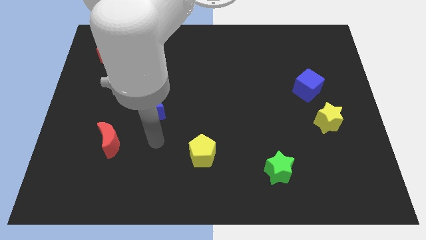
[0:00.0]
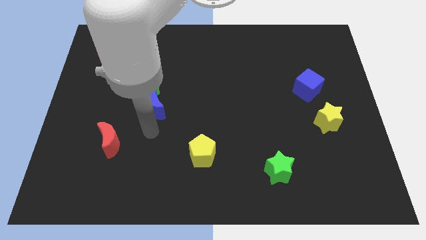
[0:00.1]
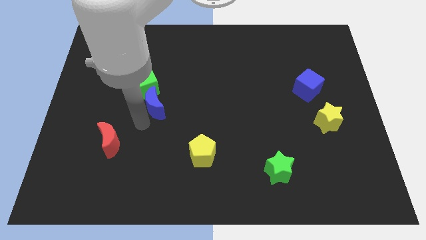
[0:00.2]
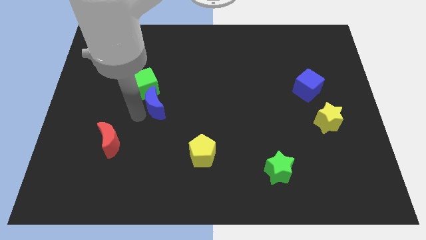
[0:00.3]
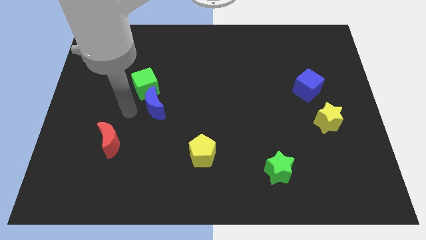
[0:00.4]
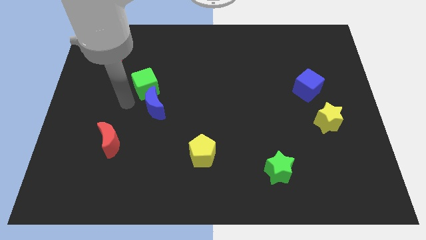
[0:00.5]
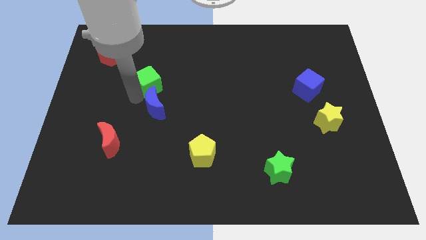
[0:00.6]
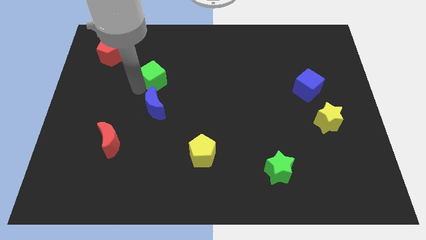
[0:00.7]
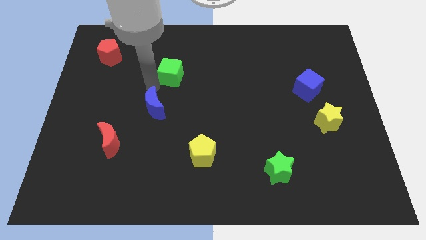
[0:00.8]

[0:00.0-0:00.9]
separate the blue moon from the green cube

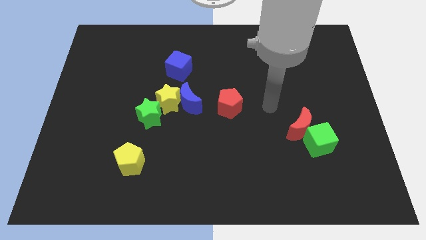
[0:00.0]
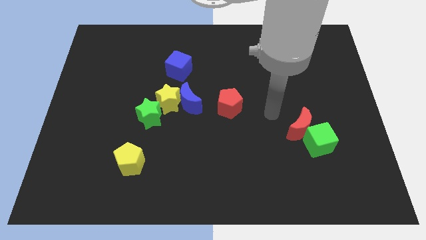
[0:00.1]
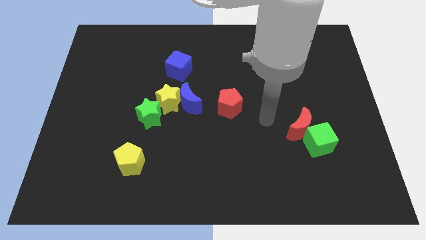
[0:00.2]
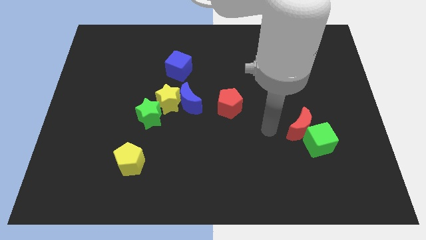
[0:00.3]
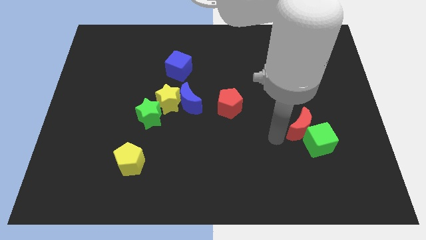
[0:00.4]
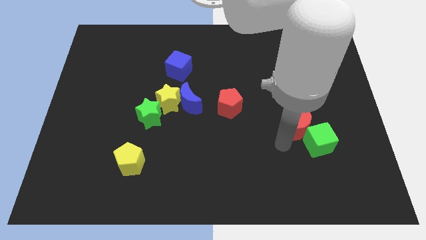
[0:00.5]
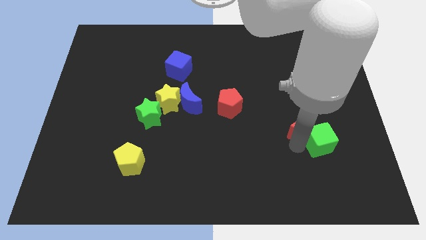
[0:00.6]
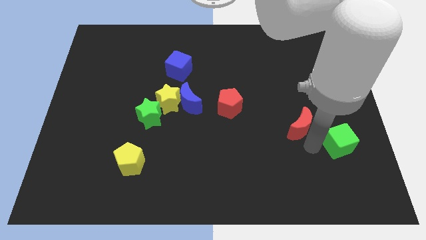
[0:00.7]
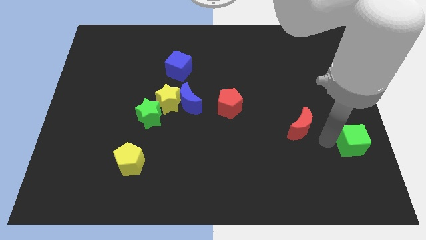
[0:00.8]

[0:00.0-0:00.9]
separate the red moon from the green cube

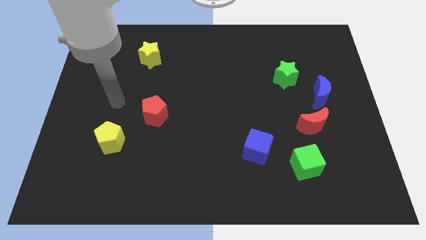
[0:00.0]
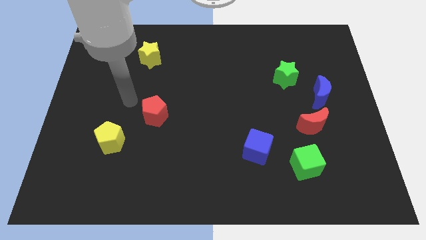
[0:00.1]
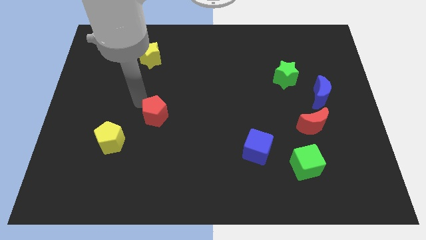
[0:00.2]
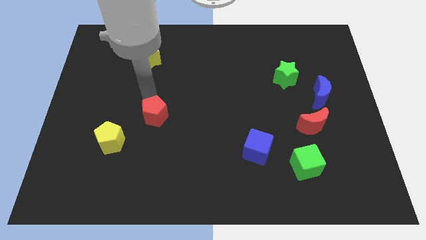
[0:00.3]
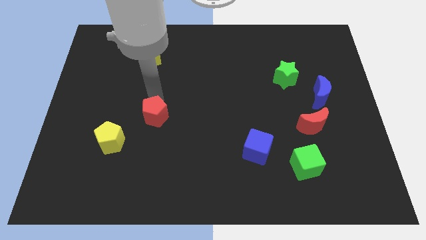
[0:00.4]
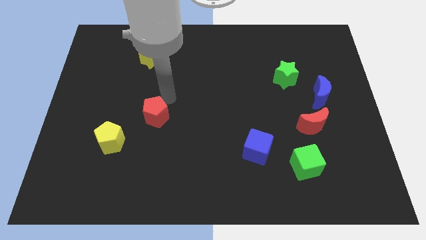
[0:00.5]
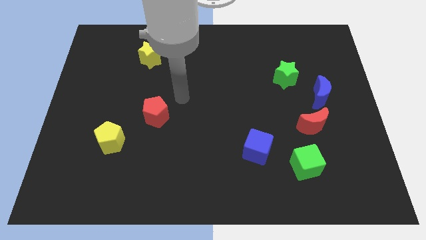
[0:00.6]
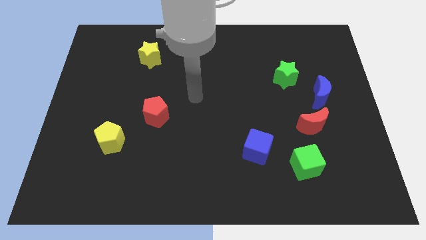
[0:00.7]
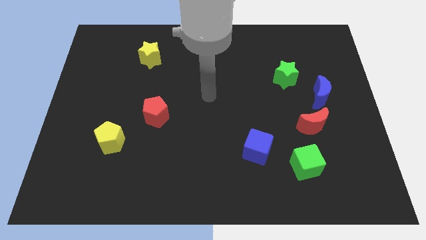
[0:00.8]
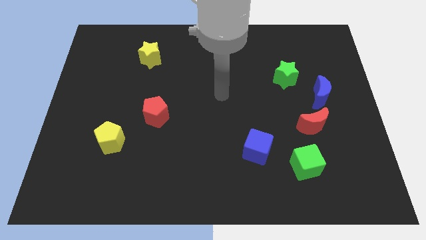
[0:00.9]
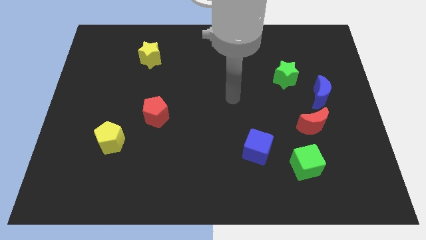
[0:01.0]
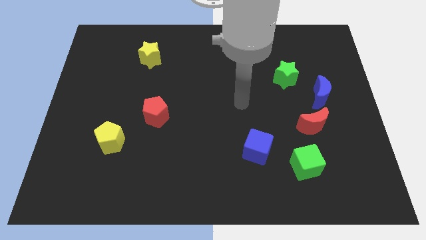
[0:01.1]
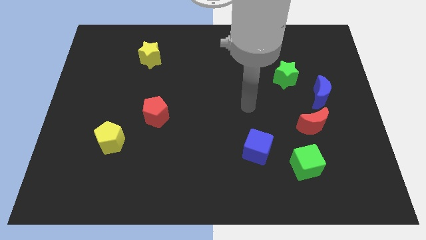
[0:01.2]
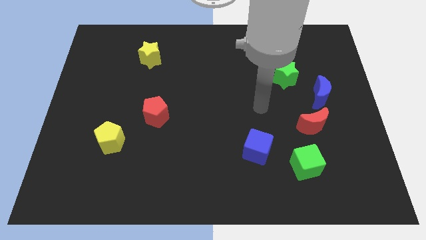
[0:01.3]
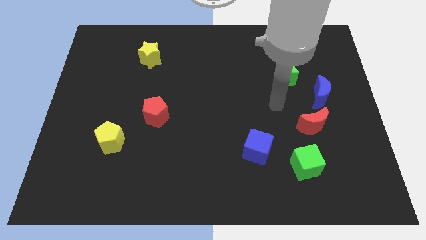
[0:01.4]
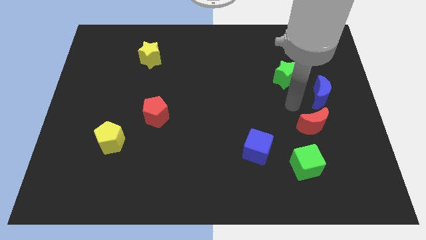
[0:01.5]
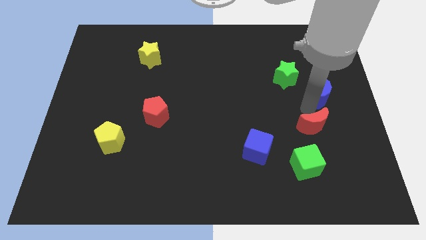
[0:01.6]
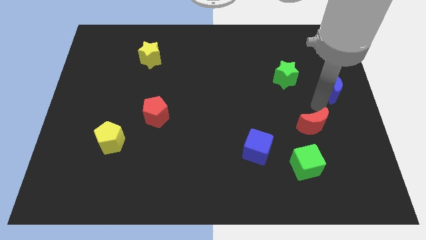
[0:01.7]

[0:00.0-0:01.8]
separate the red moon from the blue moon

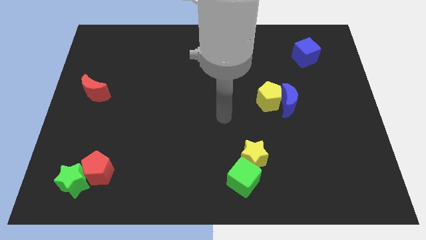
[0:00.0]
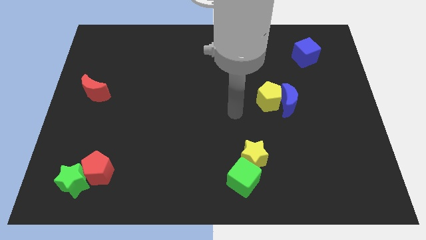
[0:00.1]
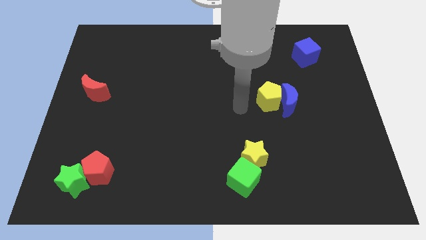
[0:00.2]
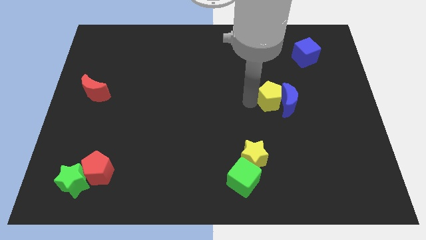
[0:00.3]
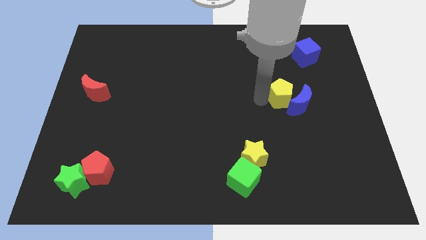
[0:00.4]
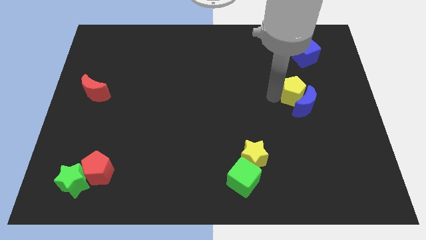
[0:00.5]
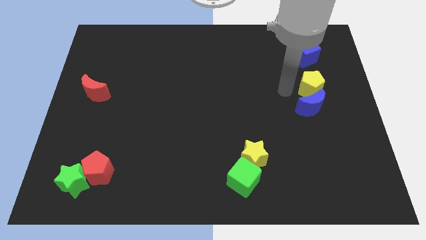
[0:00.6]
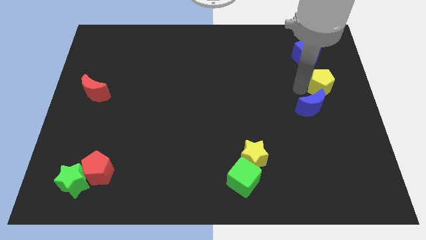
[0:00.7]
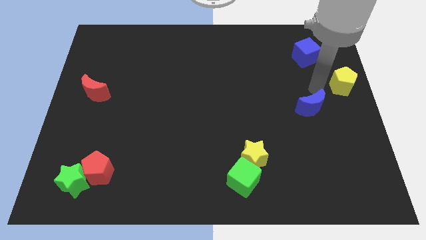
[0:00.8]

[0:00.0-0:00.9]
separate the blue moon from the yellow pentagon

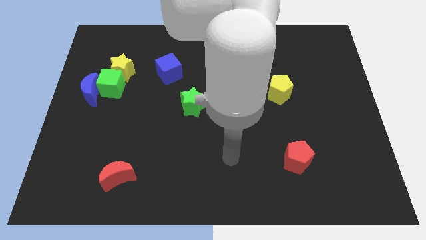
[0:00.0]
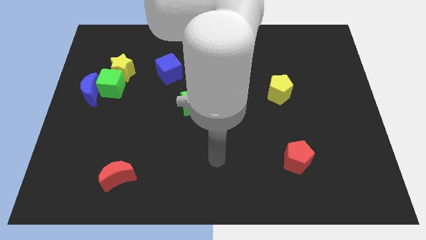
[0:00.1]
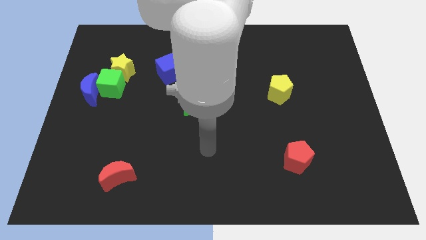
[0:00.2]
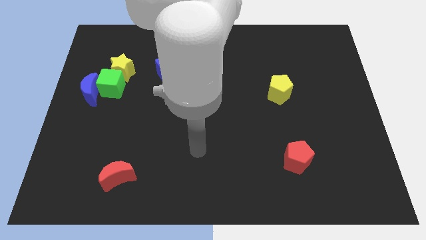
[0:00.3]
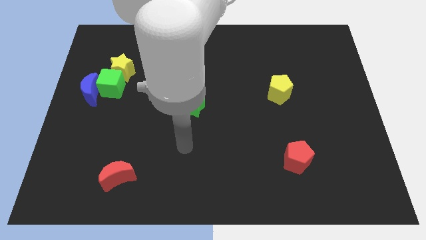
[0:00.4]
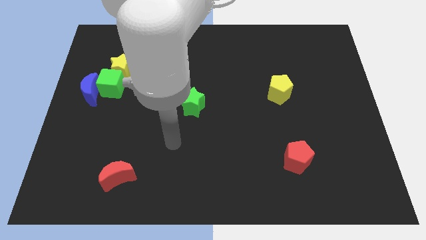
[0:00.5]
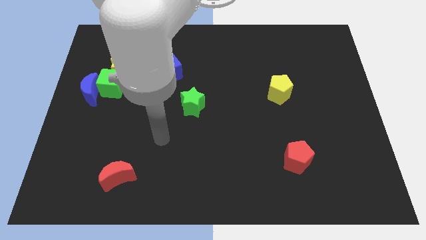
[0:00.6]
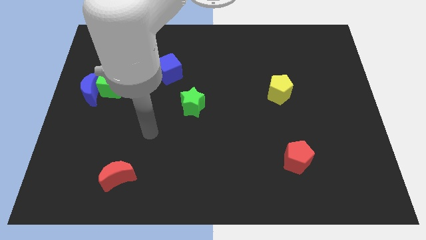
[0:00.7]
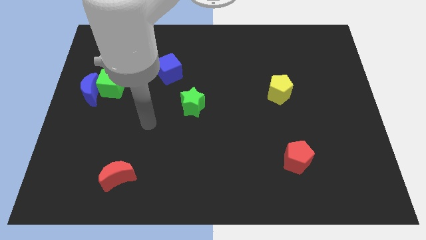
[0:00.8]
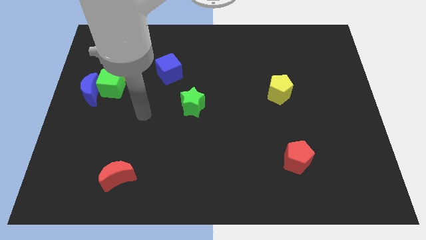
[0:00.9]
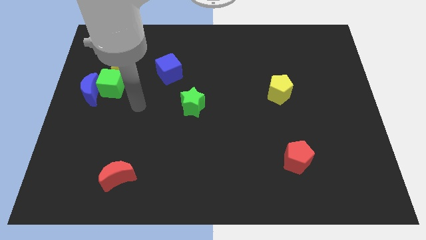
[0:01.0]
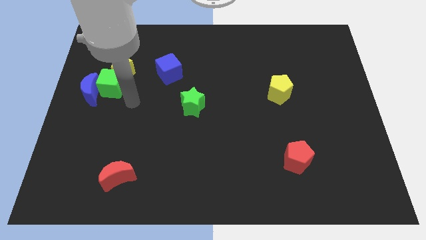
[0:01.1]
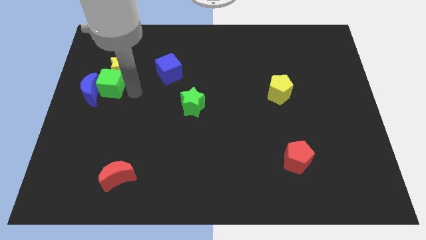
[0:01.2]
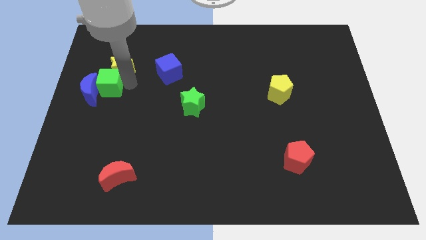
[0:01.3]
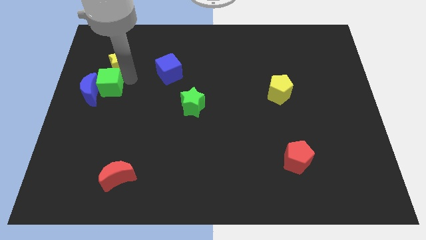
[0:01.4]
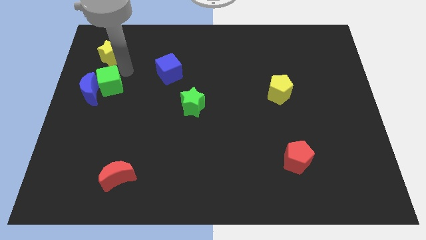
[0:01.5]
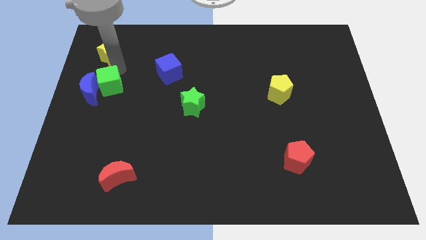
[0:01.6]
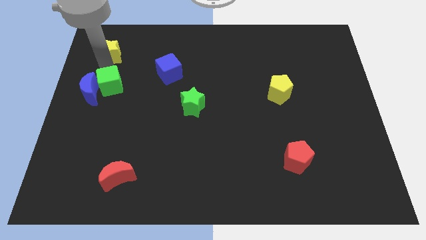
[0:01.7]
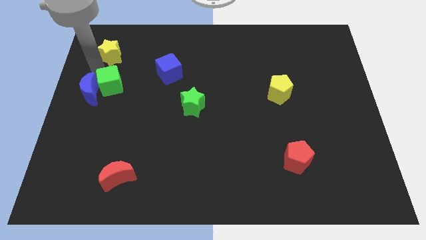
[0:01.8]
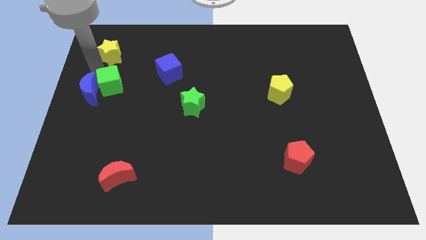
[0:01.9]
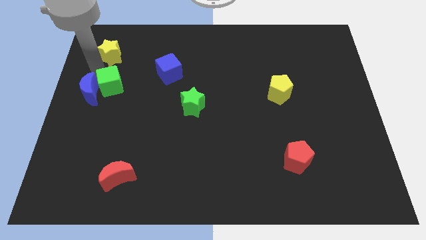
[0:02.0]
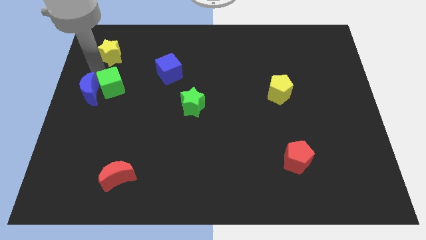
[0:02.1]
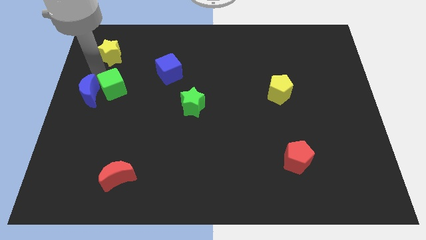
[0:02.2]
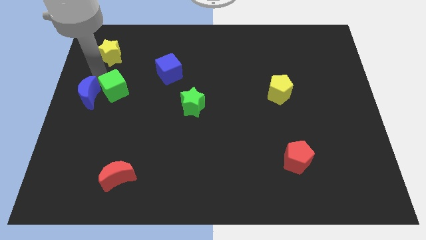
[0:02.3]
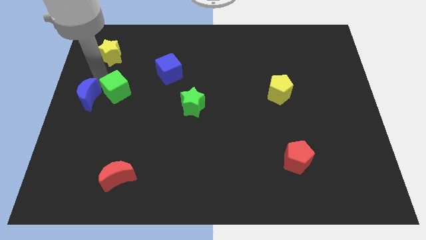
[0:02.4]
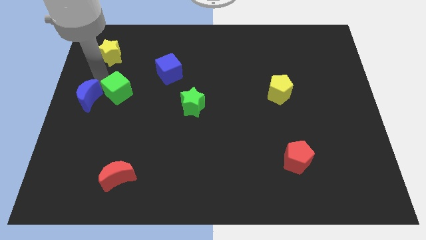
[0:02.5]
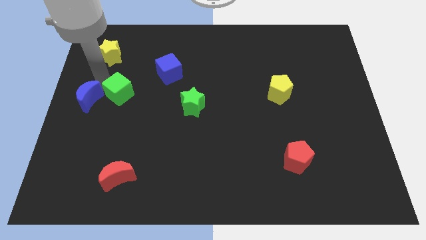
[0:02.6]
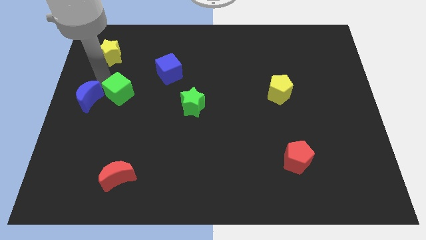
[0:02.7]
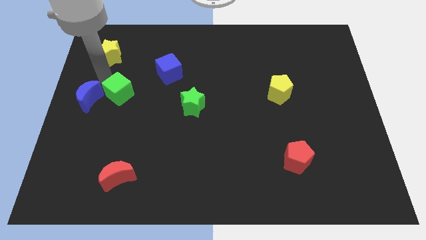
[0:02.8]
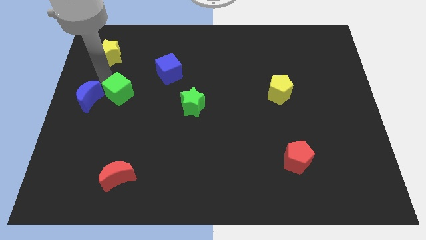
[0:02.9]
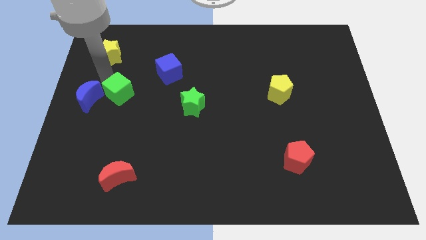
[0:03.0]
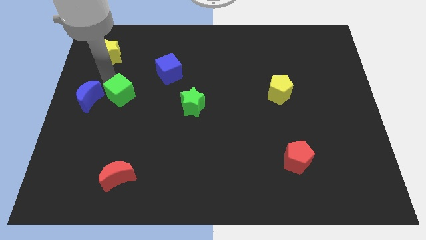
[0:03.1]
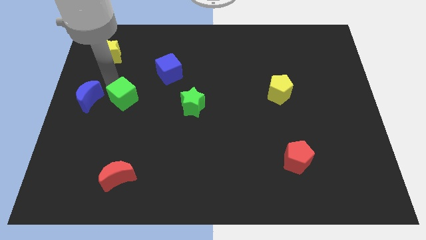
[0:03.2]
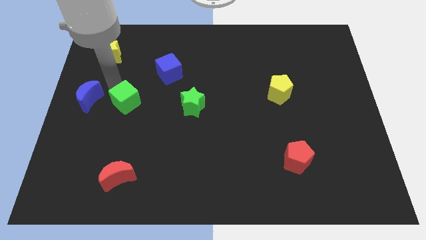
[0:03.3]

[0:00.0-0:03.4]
move the green cube away from the blue moon and yellow star

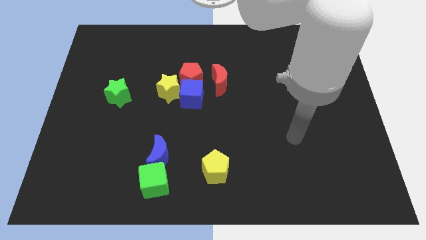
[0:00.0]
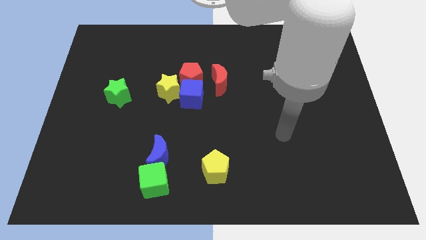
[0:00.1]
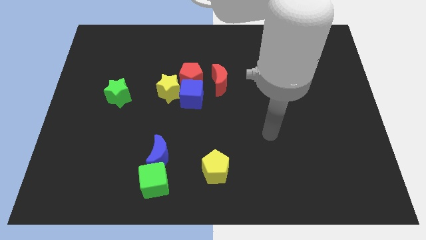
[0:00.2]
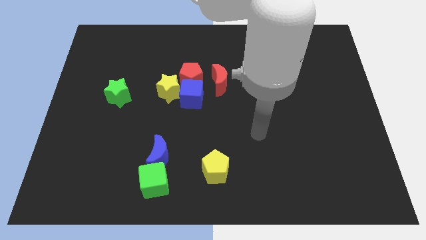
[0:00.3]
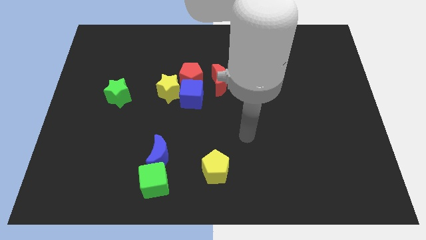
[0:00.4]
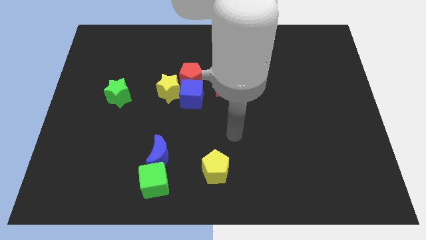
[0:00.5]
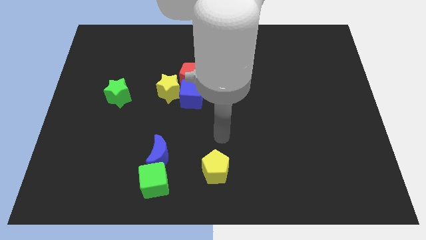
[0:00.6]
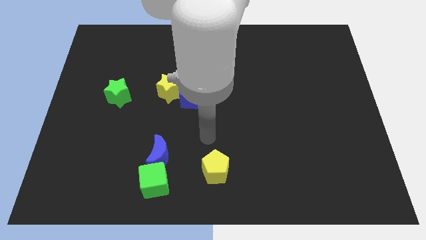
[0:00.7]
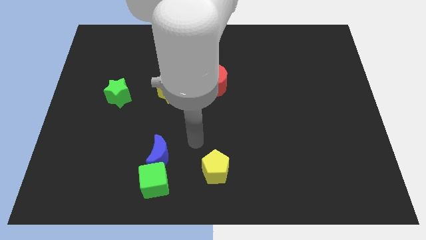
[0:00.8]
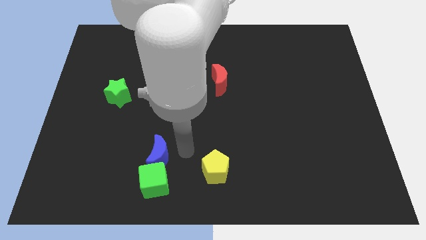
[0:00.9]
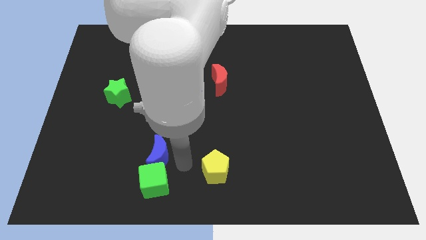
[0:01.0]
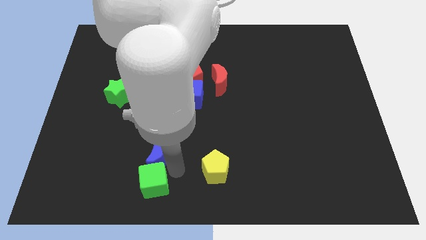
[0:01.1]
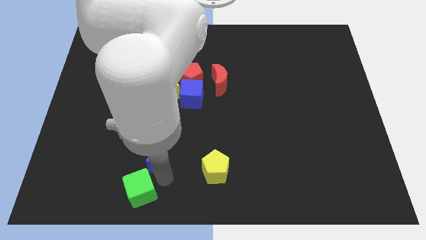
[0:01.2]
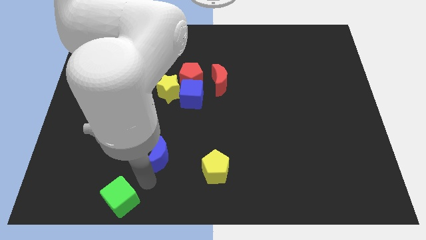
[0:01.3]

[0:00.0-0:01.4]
move the blue moon away from the green cube
